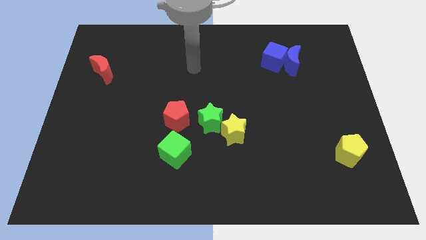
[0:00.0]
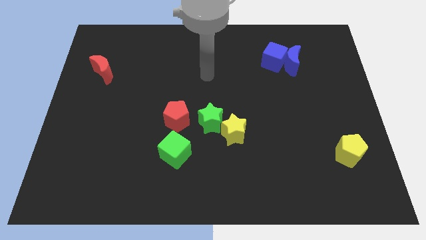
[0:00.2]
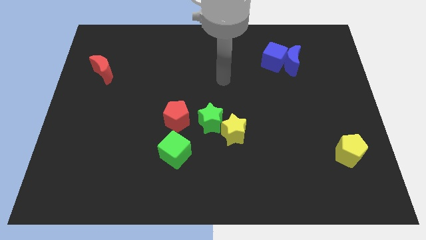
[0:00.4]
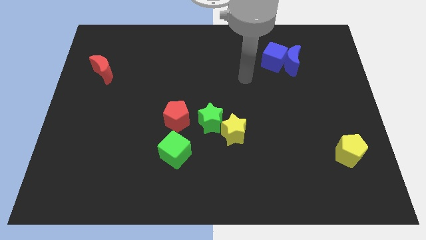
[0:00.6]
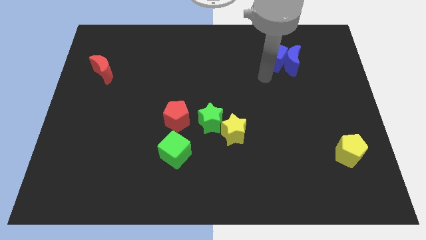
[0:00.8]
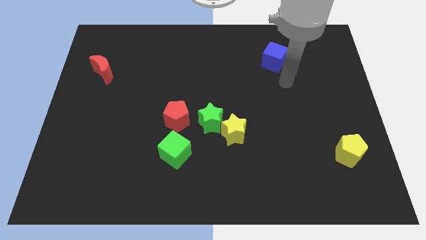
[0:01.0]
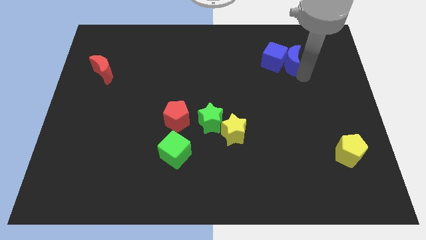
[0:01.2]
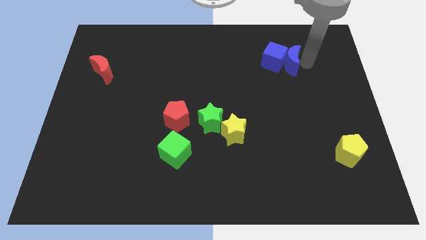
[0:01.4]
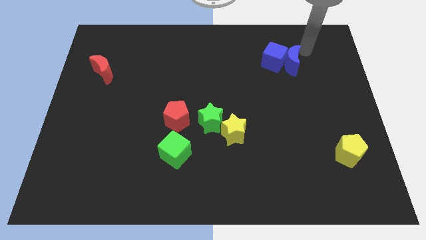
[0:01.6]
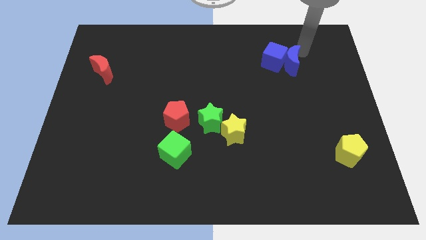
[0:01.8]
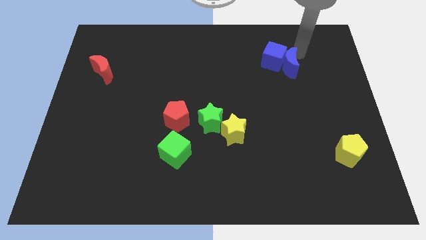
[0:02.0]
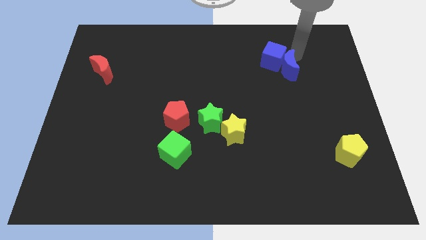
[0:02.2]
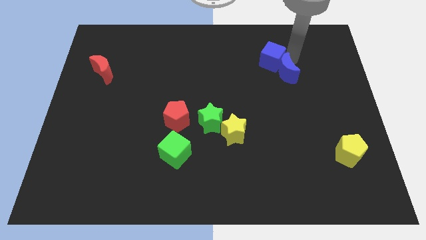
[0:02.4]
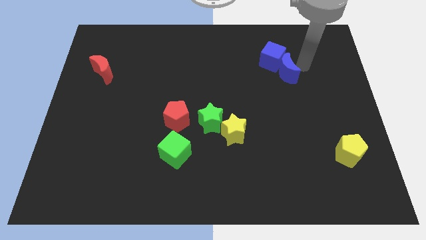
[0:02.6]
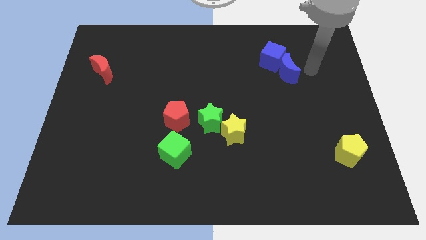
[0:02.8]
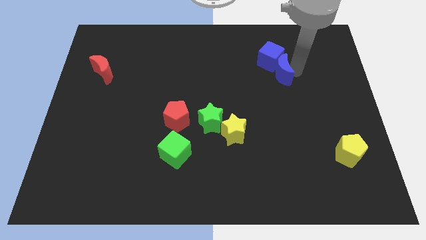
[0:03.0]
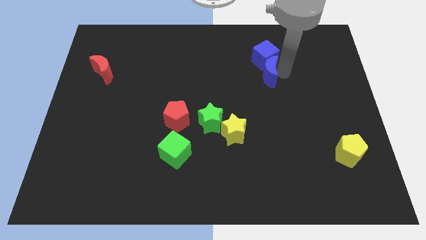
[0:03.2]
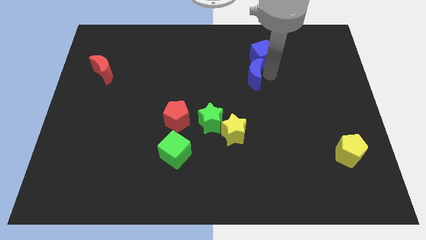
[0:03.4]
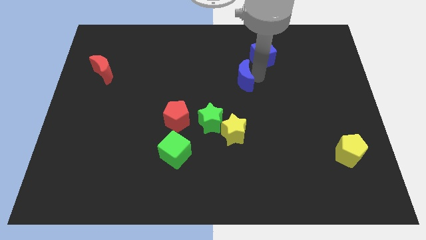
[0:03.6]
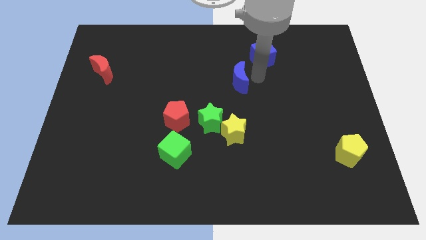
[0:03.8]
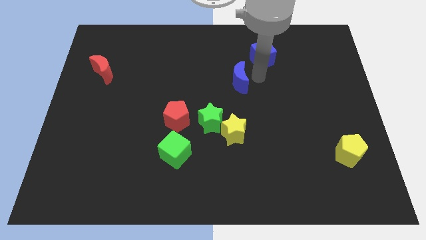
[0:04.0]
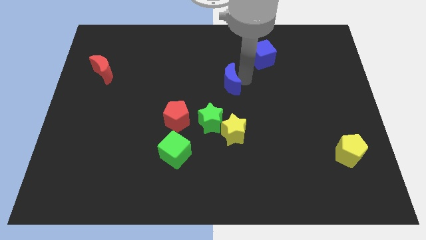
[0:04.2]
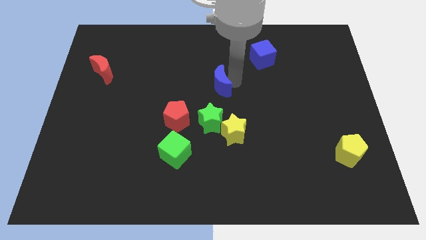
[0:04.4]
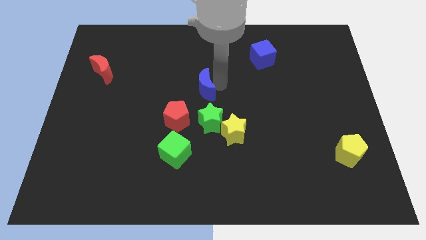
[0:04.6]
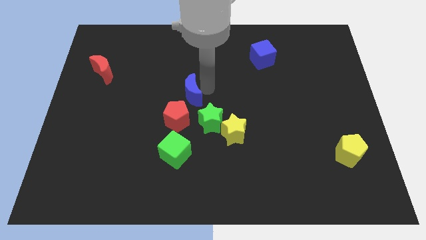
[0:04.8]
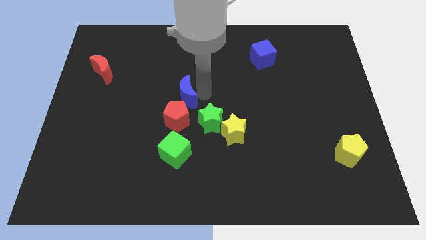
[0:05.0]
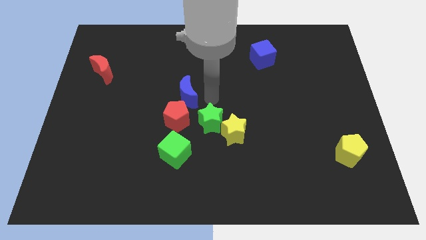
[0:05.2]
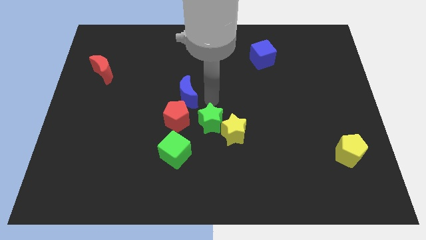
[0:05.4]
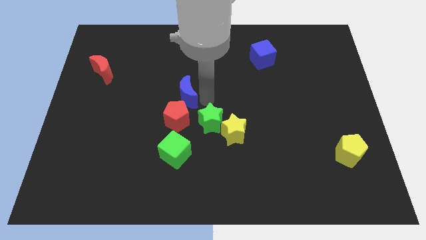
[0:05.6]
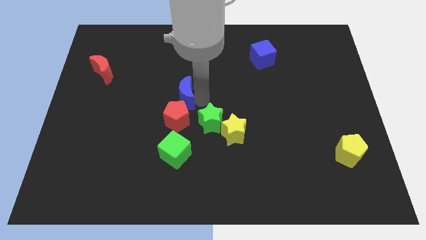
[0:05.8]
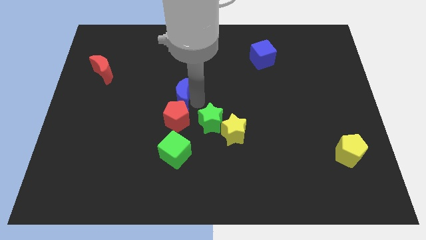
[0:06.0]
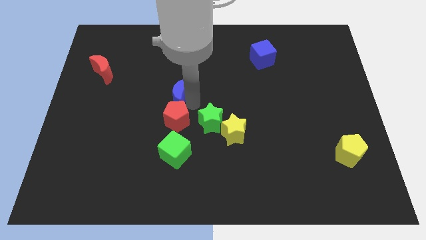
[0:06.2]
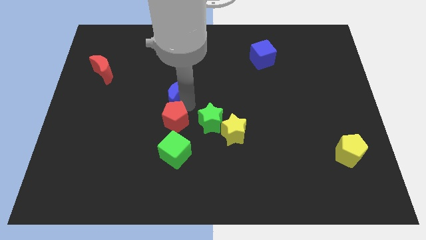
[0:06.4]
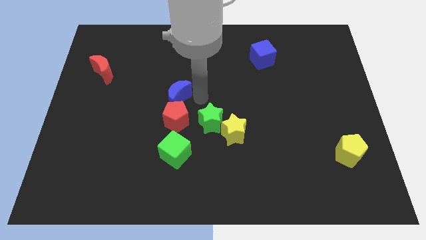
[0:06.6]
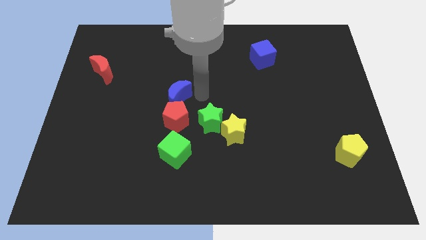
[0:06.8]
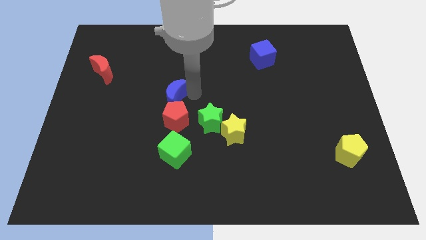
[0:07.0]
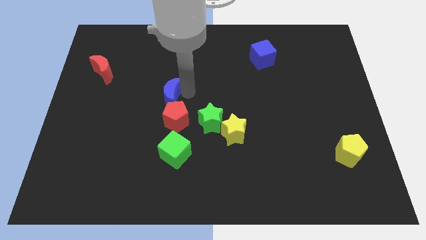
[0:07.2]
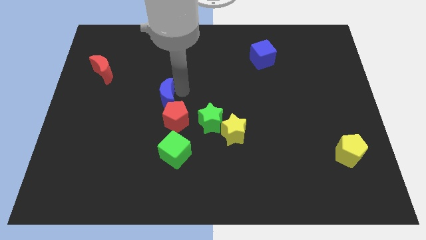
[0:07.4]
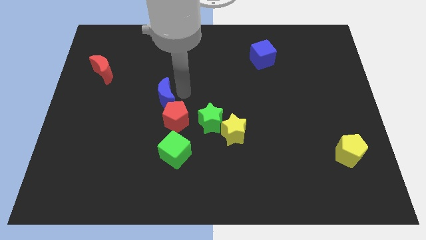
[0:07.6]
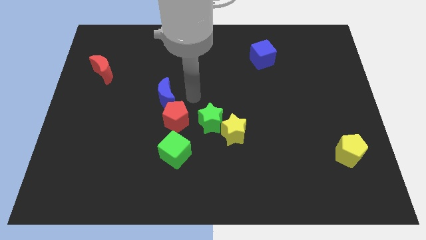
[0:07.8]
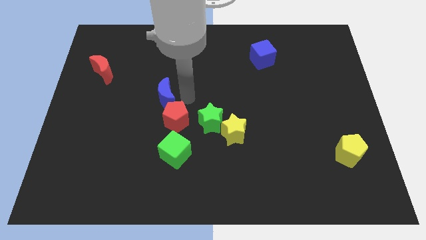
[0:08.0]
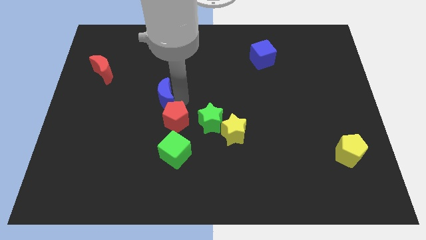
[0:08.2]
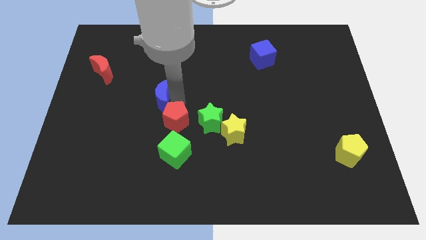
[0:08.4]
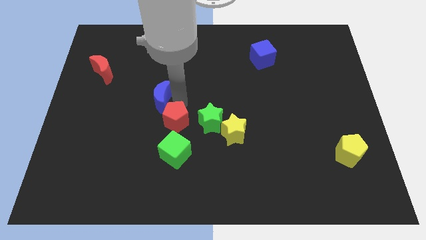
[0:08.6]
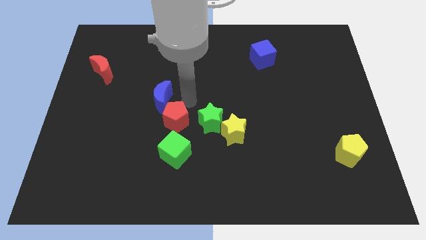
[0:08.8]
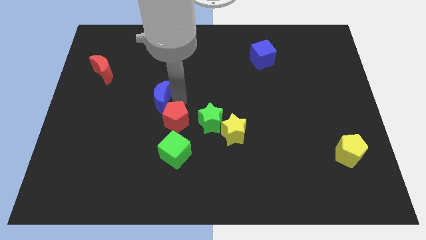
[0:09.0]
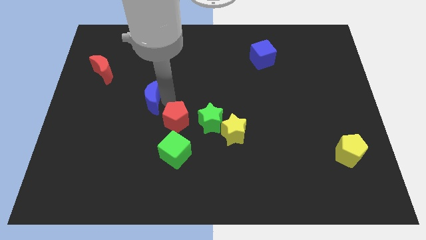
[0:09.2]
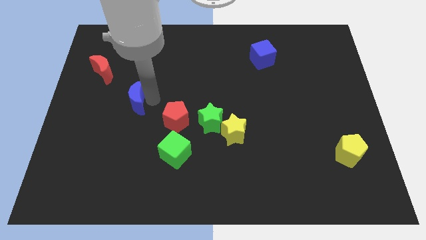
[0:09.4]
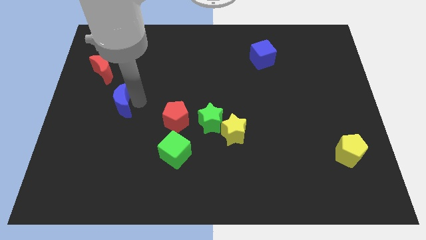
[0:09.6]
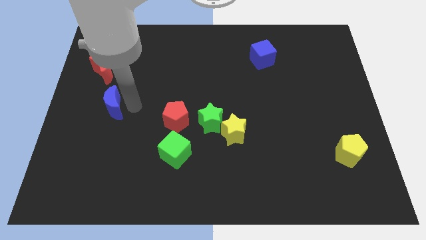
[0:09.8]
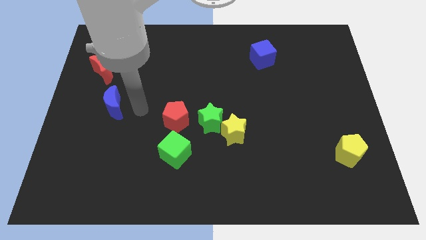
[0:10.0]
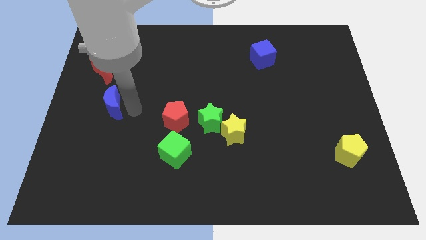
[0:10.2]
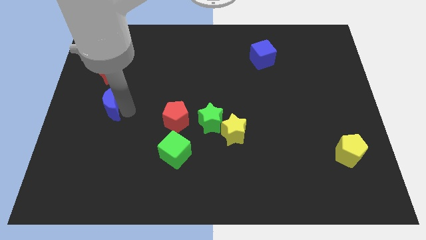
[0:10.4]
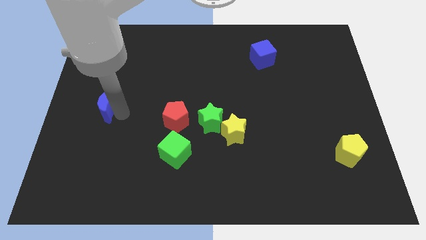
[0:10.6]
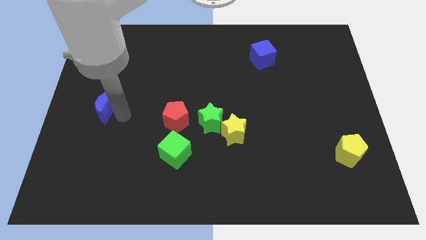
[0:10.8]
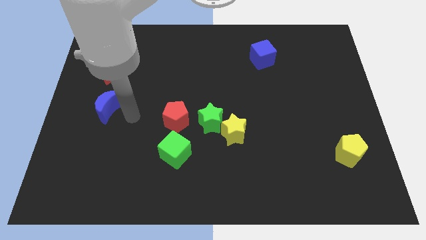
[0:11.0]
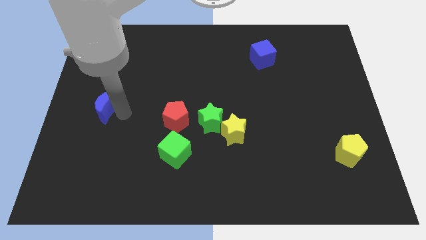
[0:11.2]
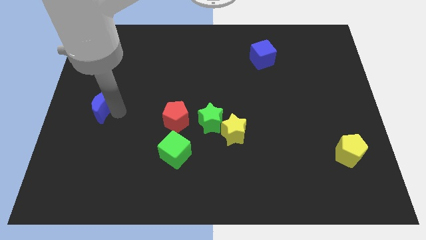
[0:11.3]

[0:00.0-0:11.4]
move the blue moon to the left side

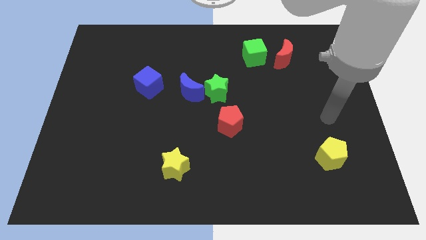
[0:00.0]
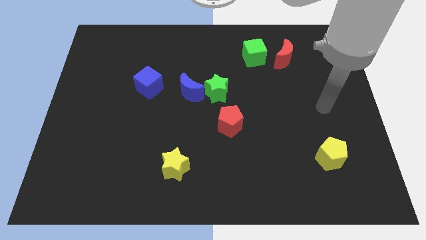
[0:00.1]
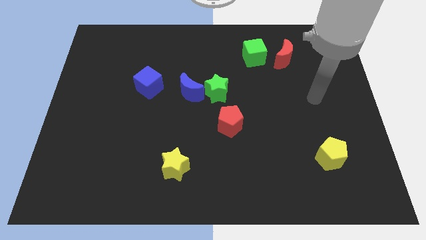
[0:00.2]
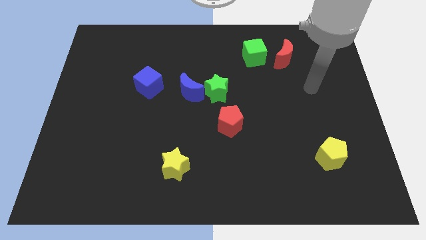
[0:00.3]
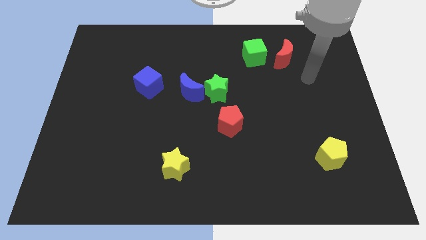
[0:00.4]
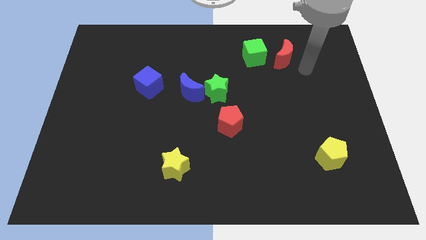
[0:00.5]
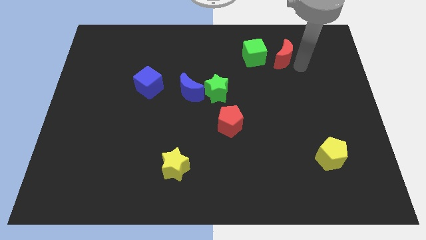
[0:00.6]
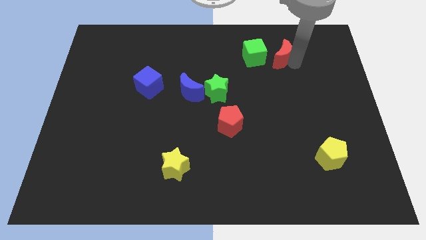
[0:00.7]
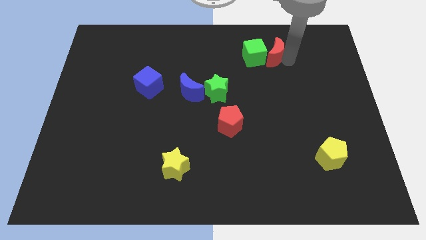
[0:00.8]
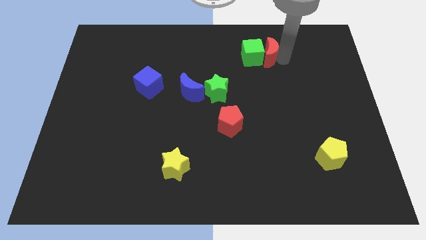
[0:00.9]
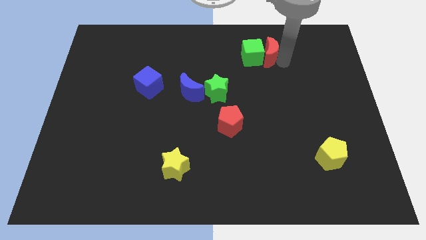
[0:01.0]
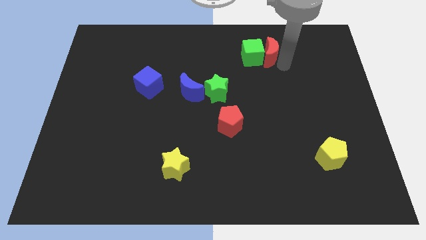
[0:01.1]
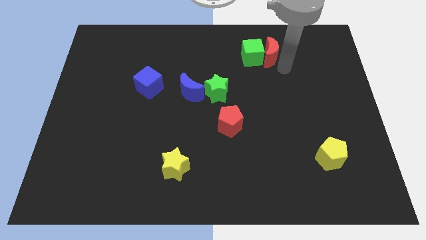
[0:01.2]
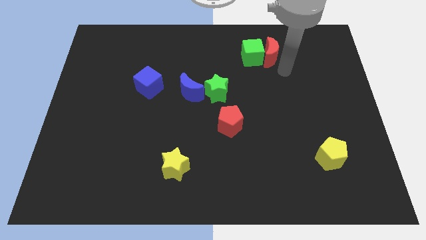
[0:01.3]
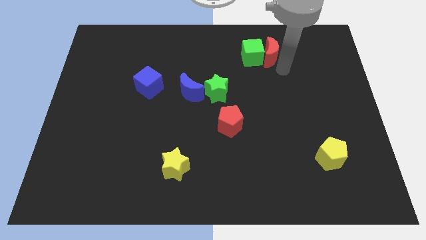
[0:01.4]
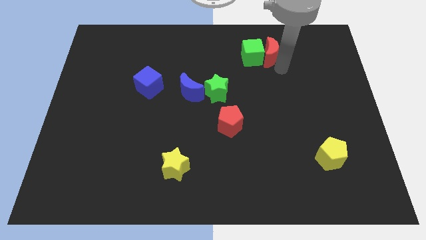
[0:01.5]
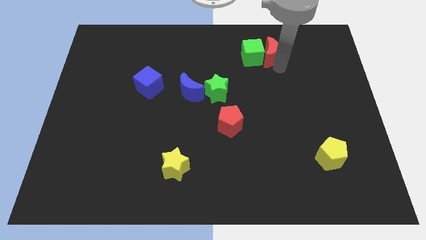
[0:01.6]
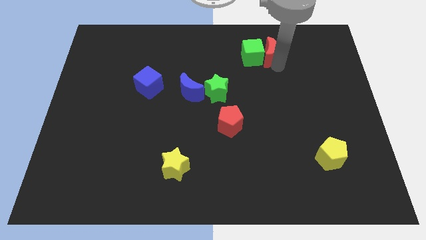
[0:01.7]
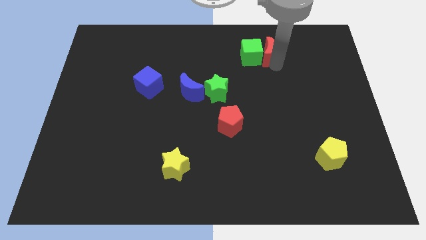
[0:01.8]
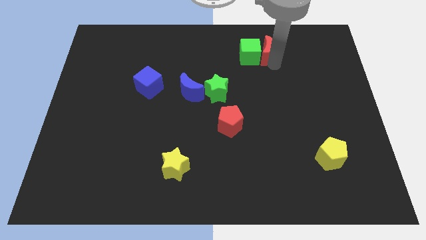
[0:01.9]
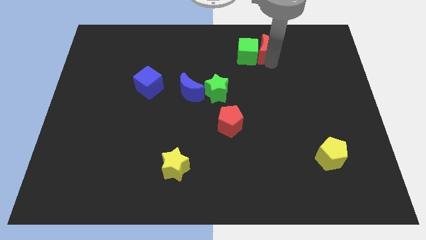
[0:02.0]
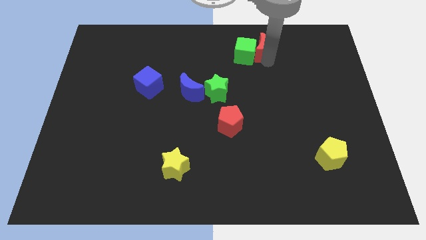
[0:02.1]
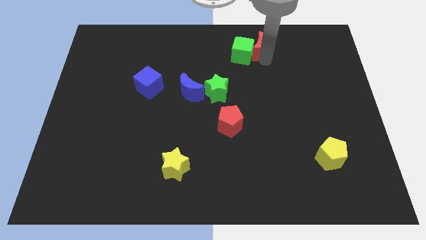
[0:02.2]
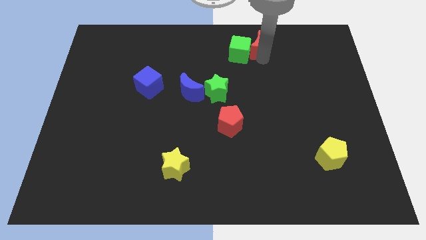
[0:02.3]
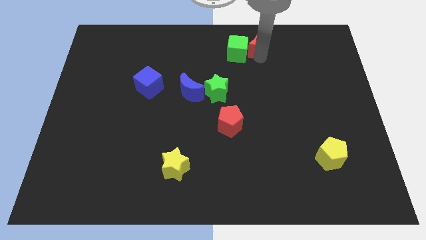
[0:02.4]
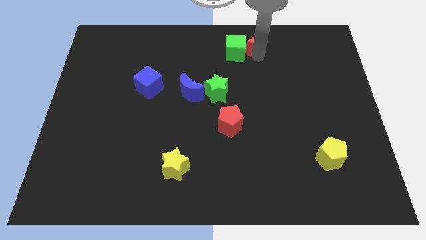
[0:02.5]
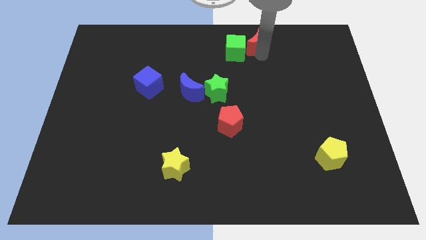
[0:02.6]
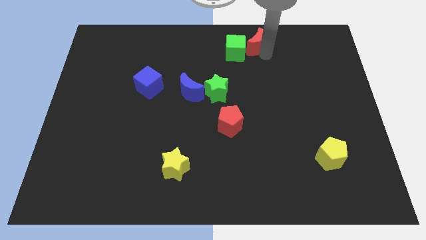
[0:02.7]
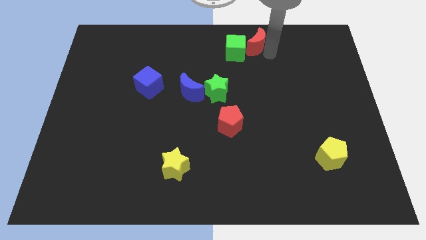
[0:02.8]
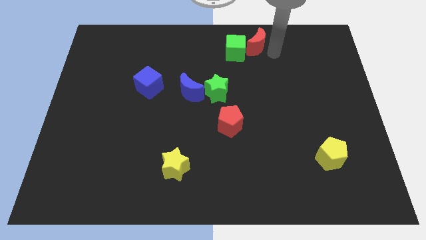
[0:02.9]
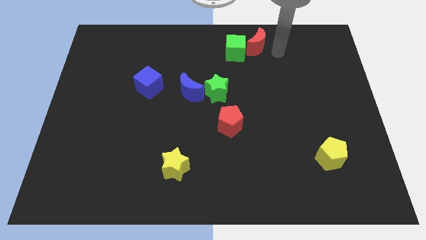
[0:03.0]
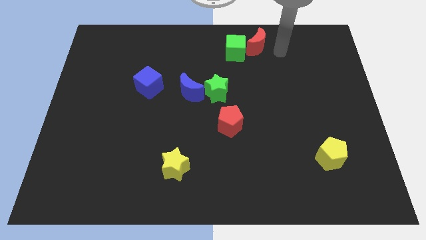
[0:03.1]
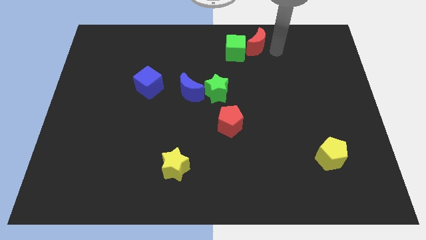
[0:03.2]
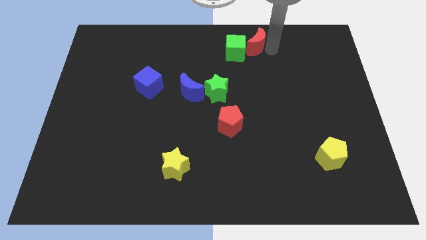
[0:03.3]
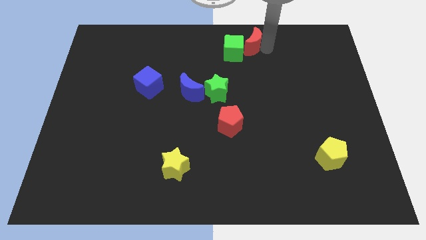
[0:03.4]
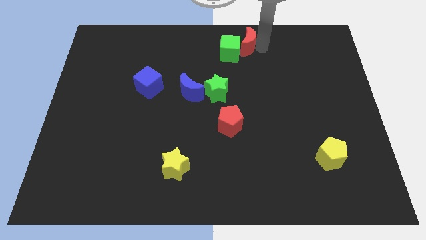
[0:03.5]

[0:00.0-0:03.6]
put the red moon to the top
